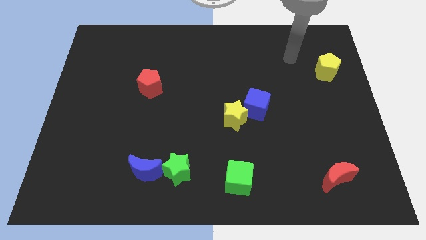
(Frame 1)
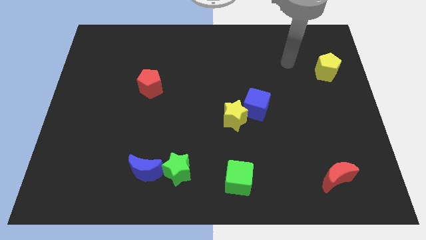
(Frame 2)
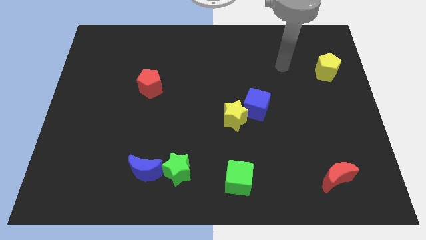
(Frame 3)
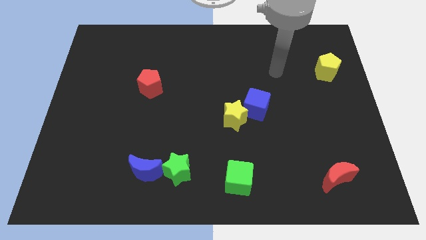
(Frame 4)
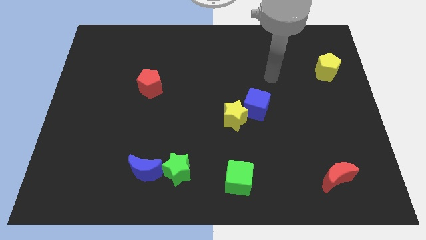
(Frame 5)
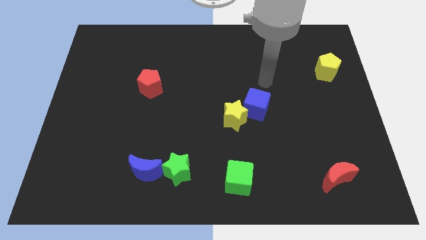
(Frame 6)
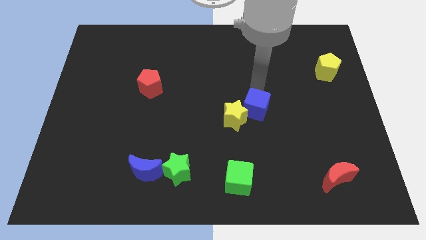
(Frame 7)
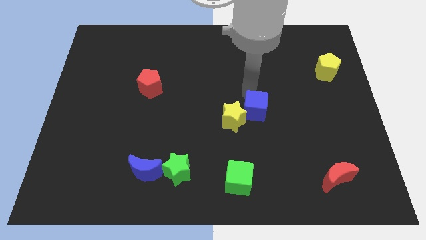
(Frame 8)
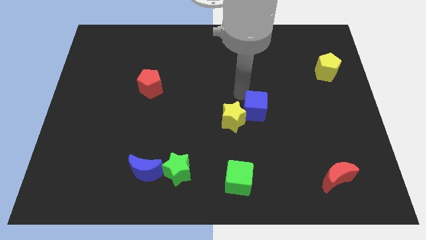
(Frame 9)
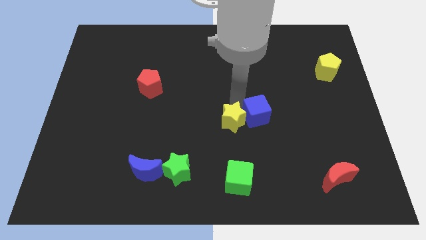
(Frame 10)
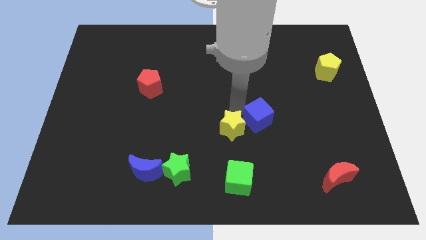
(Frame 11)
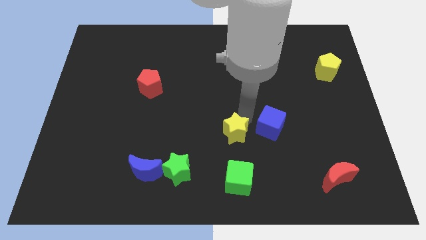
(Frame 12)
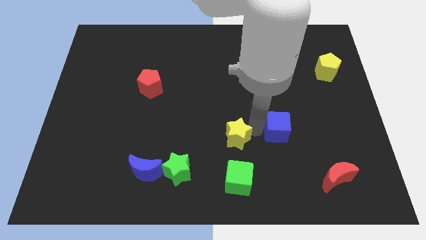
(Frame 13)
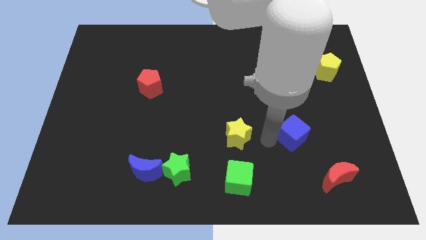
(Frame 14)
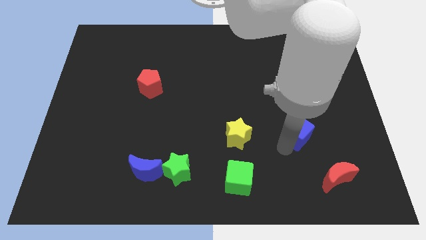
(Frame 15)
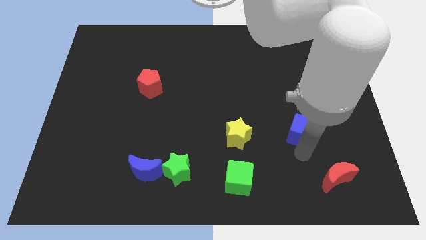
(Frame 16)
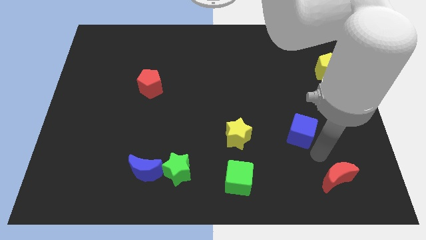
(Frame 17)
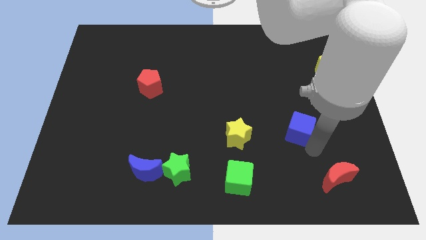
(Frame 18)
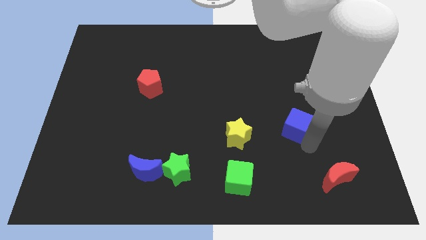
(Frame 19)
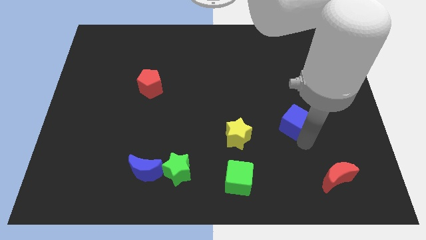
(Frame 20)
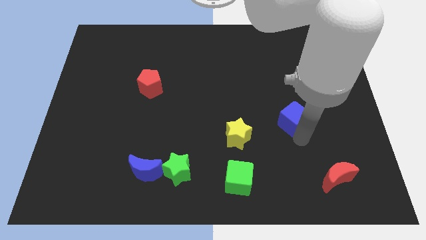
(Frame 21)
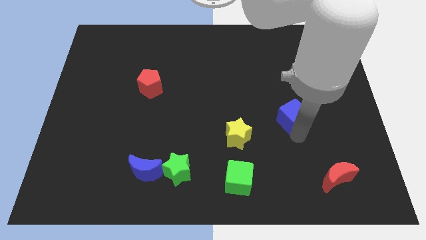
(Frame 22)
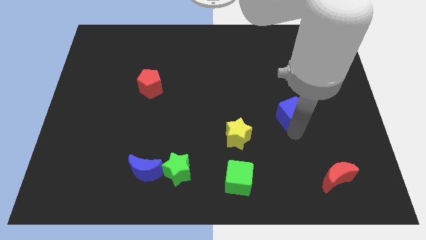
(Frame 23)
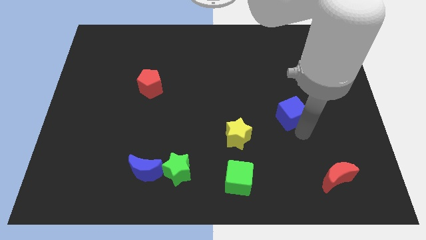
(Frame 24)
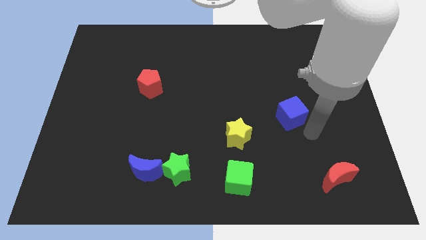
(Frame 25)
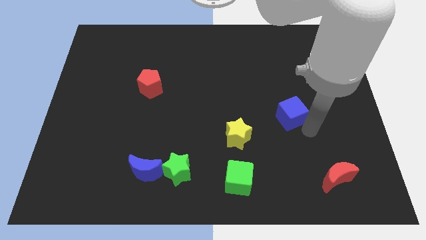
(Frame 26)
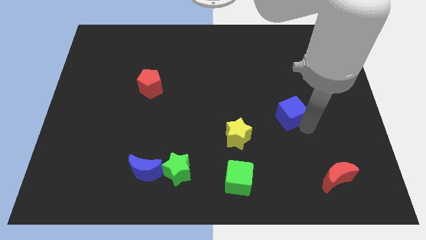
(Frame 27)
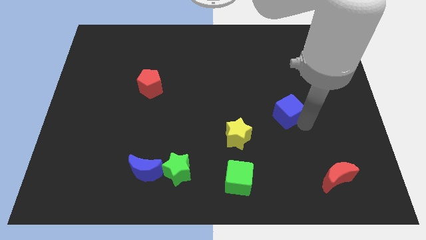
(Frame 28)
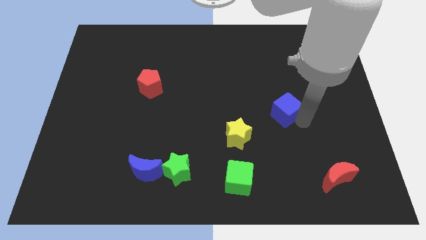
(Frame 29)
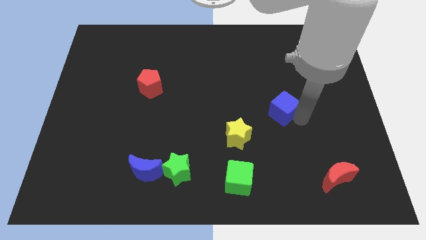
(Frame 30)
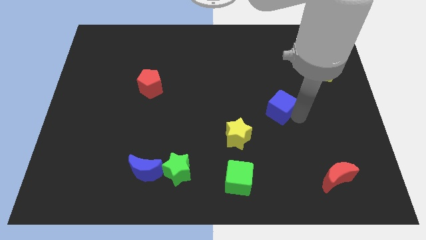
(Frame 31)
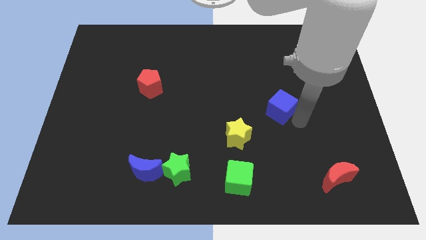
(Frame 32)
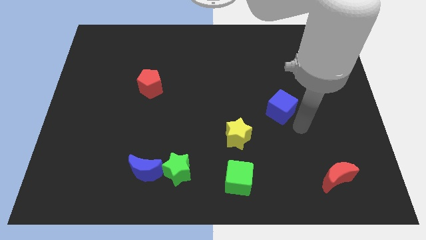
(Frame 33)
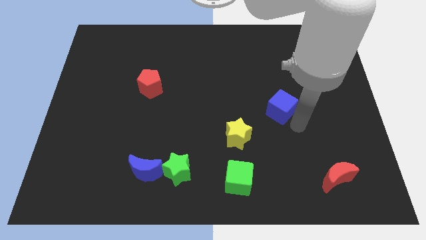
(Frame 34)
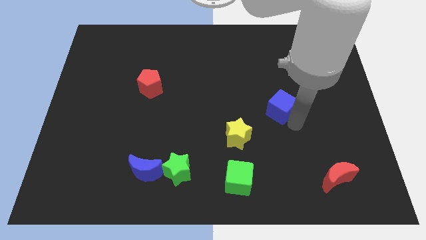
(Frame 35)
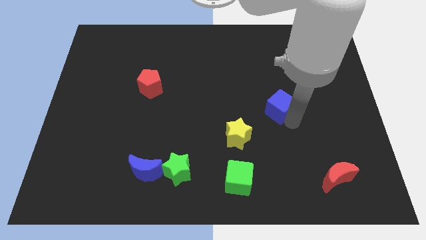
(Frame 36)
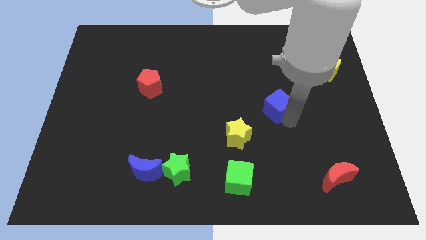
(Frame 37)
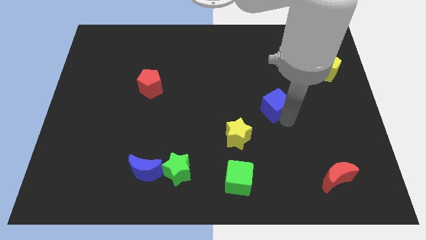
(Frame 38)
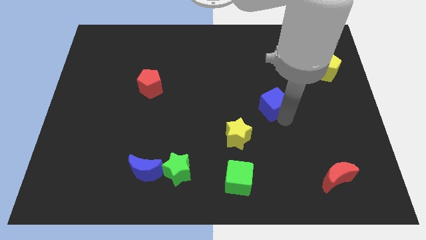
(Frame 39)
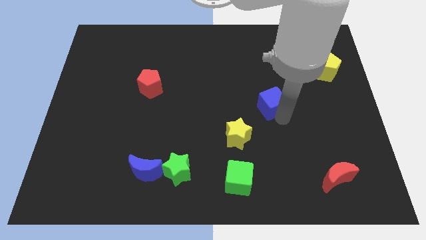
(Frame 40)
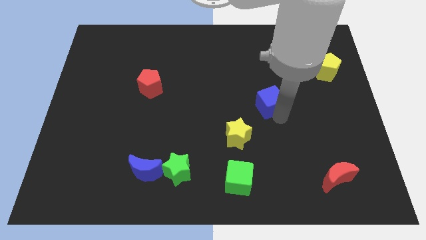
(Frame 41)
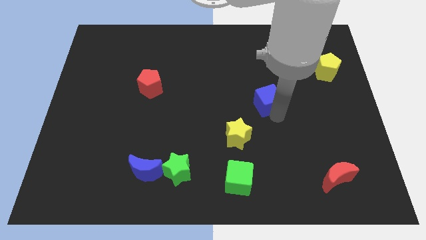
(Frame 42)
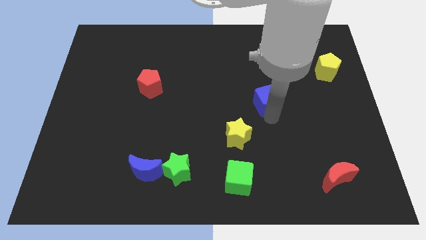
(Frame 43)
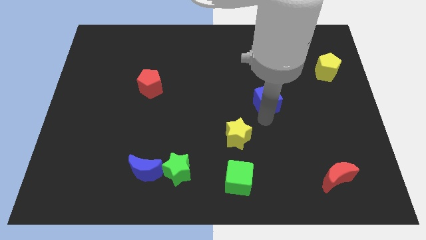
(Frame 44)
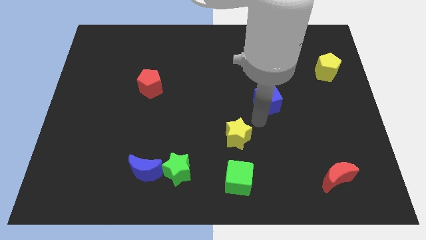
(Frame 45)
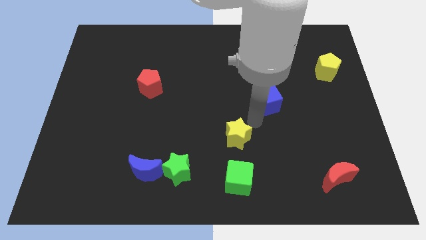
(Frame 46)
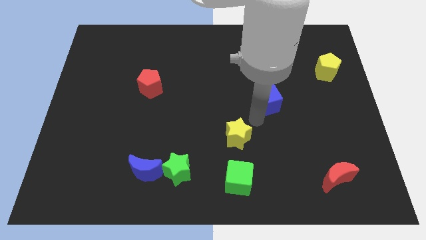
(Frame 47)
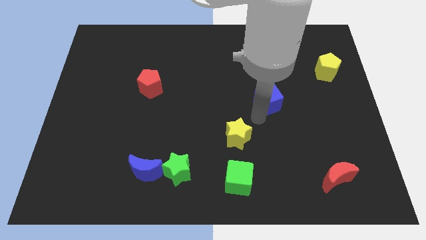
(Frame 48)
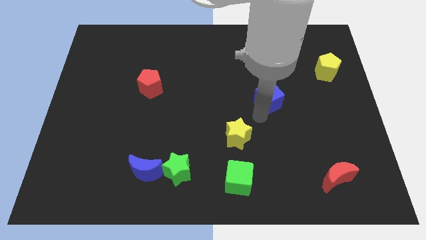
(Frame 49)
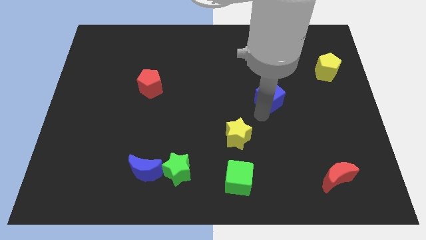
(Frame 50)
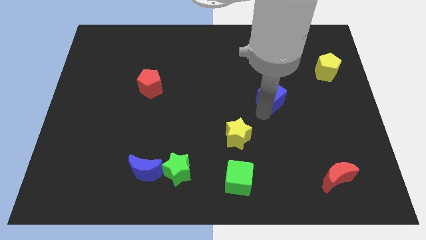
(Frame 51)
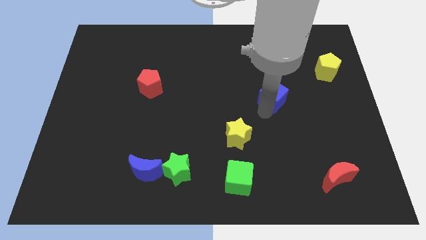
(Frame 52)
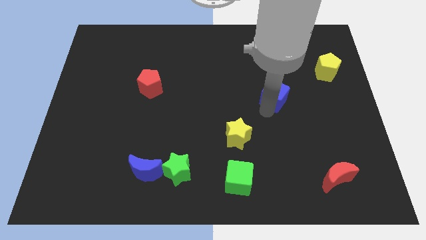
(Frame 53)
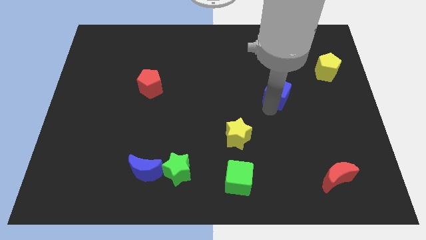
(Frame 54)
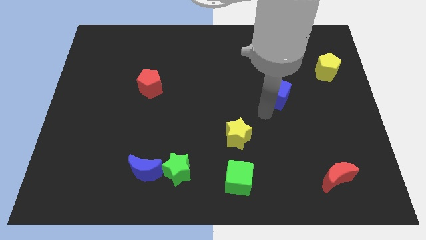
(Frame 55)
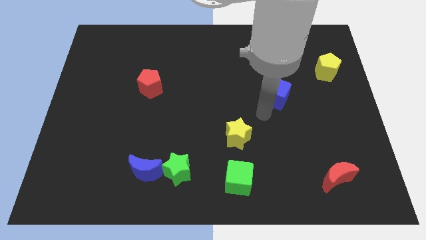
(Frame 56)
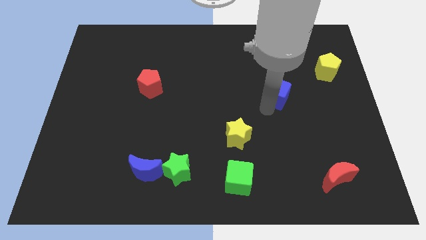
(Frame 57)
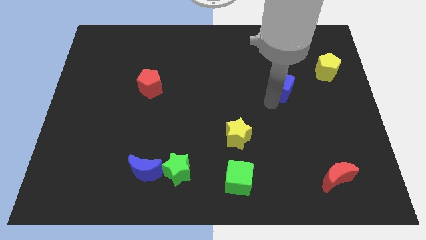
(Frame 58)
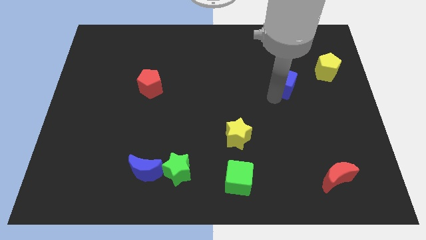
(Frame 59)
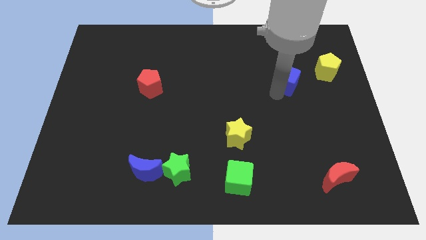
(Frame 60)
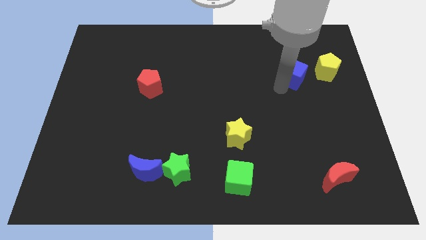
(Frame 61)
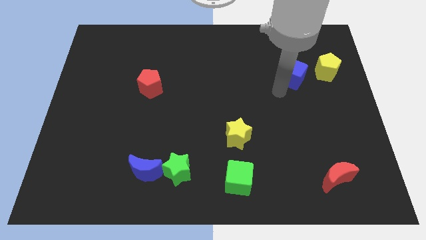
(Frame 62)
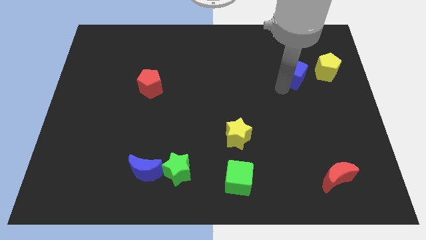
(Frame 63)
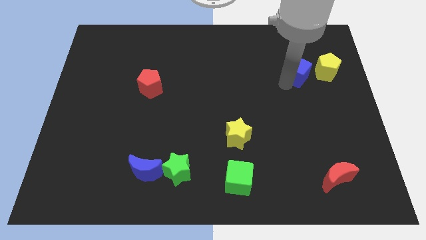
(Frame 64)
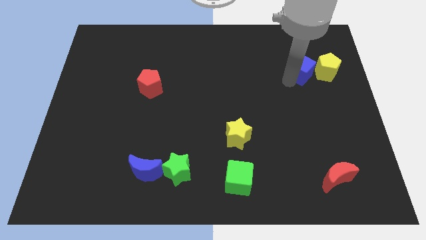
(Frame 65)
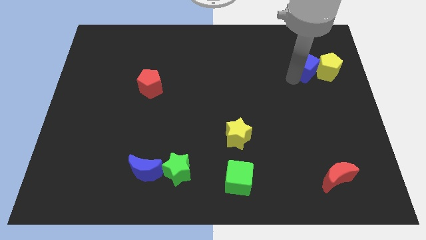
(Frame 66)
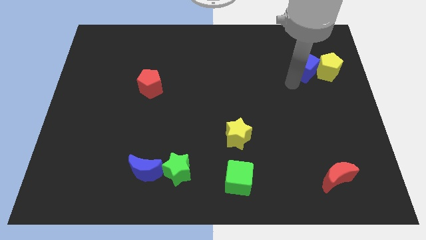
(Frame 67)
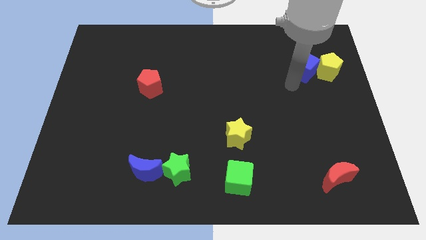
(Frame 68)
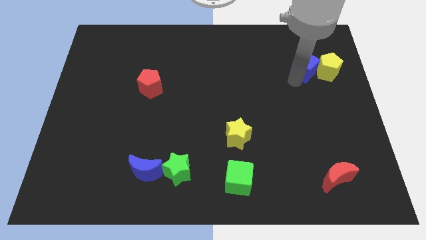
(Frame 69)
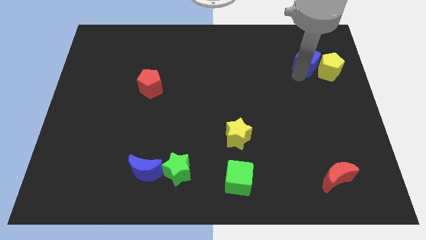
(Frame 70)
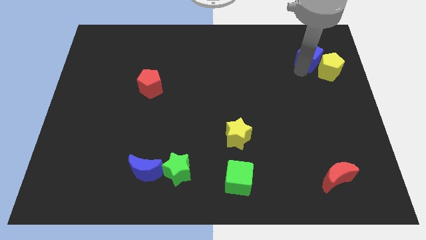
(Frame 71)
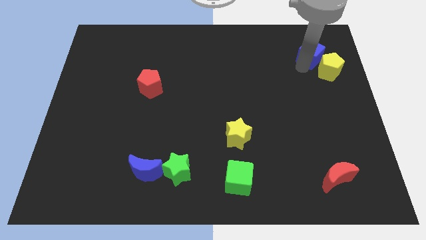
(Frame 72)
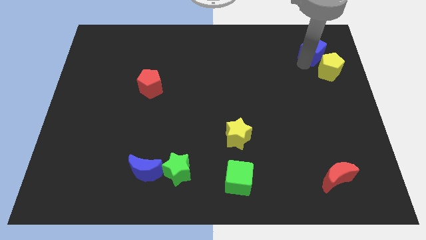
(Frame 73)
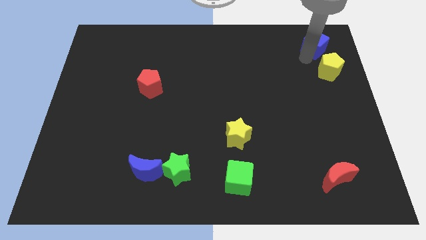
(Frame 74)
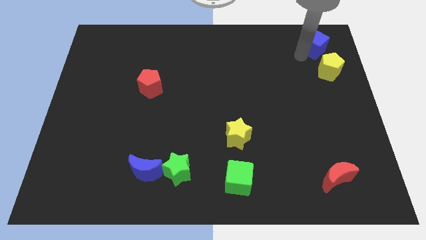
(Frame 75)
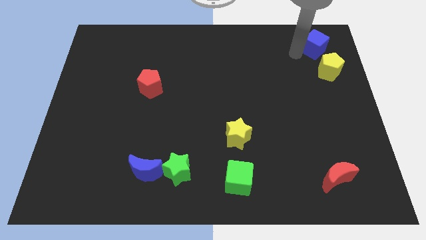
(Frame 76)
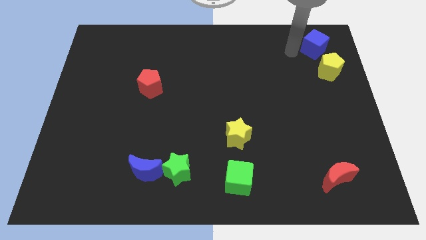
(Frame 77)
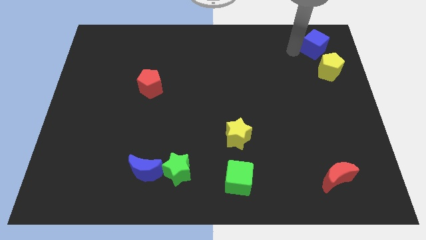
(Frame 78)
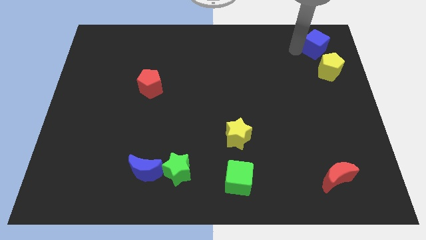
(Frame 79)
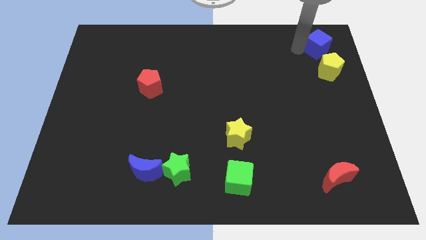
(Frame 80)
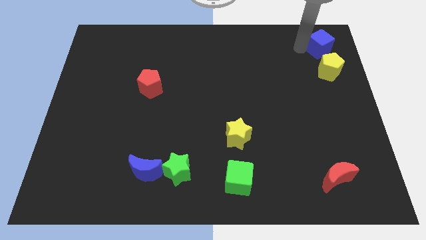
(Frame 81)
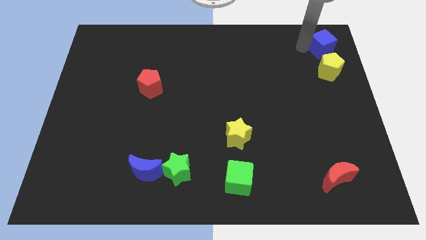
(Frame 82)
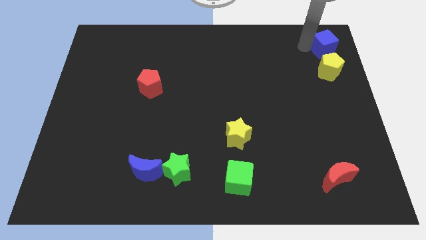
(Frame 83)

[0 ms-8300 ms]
push the blue cube to the top right of the board
